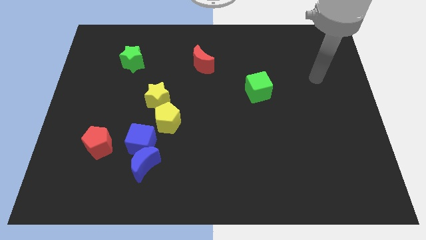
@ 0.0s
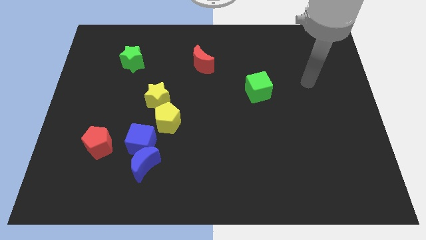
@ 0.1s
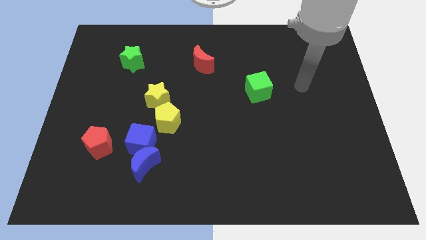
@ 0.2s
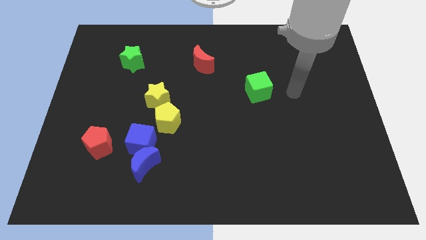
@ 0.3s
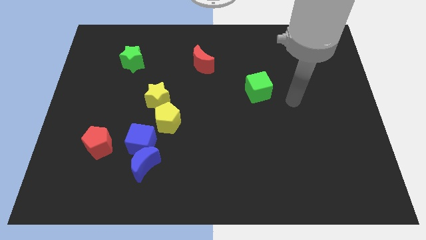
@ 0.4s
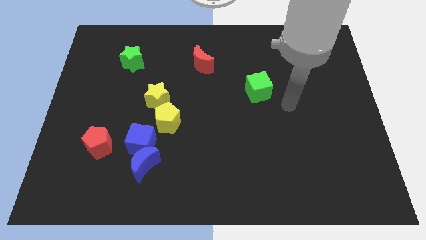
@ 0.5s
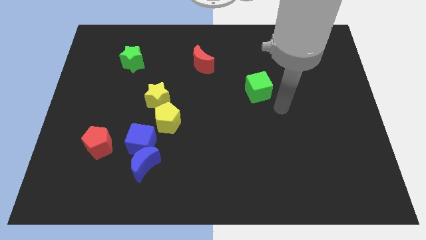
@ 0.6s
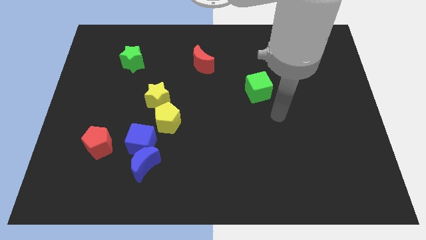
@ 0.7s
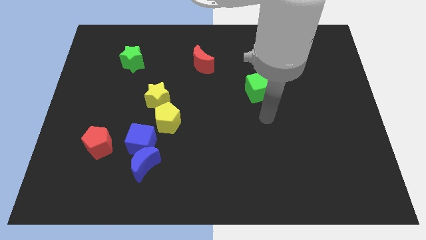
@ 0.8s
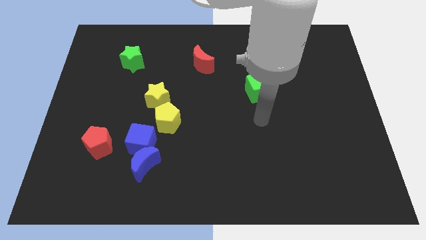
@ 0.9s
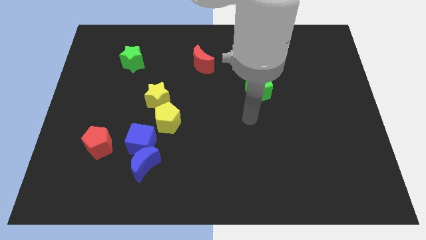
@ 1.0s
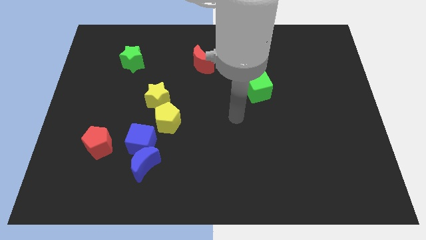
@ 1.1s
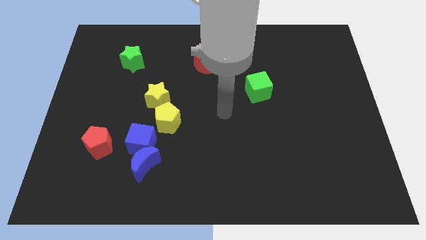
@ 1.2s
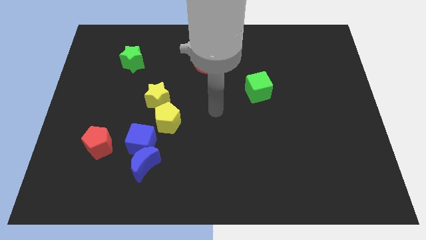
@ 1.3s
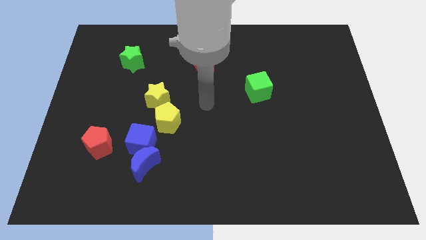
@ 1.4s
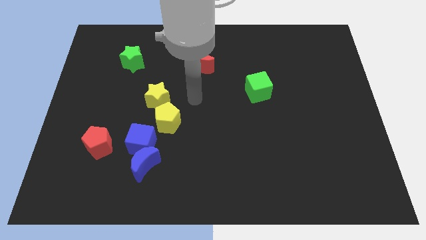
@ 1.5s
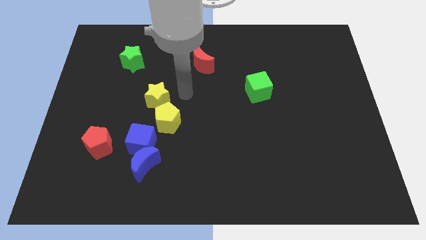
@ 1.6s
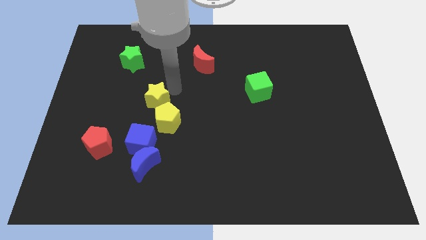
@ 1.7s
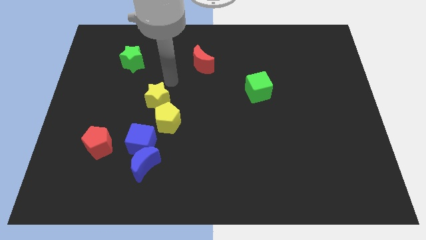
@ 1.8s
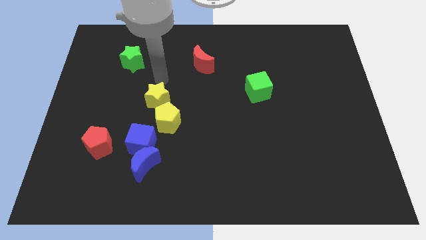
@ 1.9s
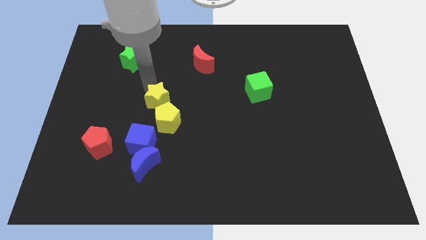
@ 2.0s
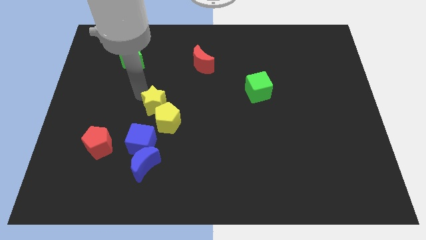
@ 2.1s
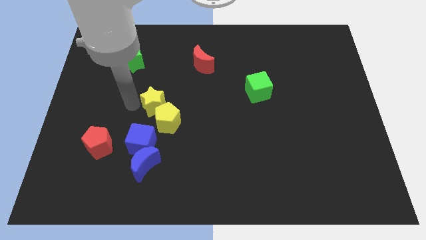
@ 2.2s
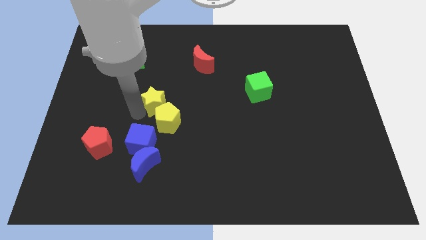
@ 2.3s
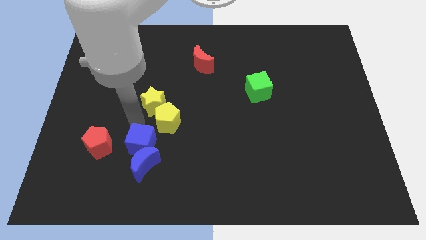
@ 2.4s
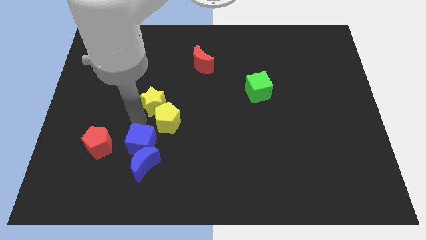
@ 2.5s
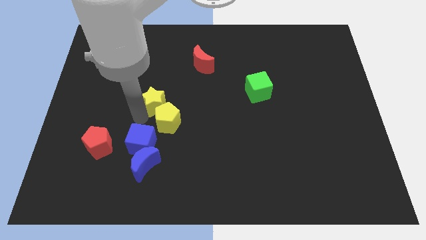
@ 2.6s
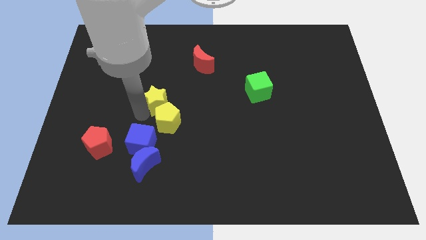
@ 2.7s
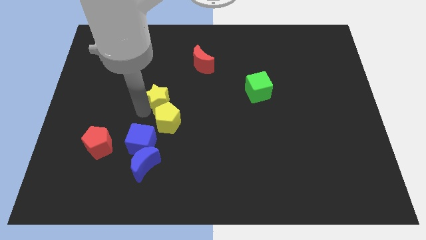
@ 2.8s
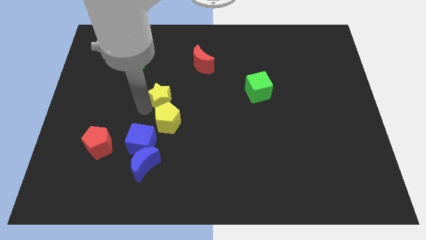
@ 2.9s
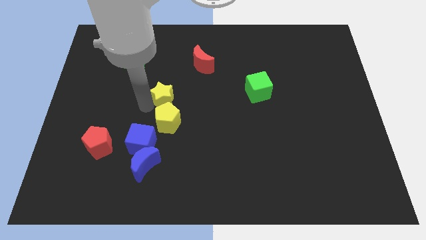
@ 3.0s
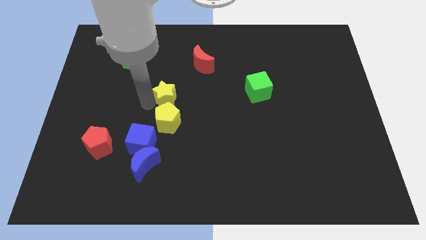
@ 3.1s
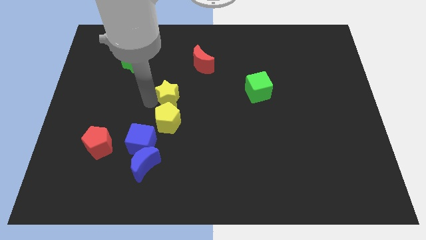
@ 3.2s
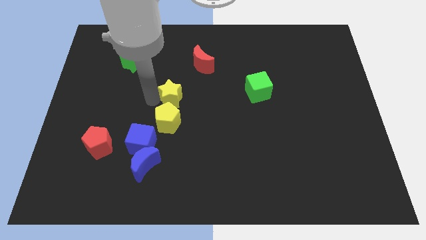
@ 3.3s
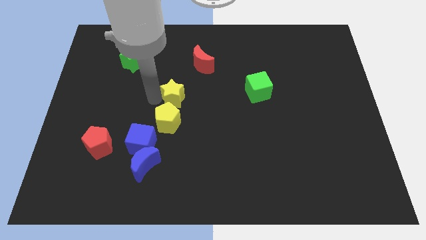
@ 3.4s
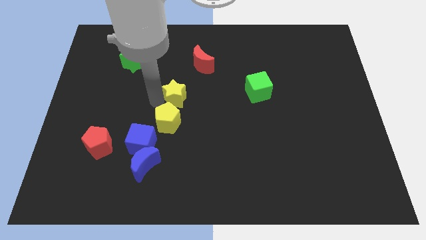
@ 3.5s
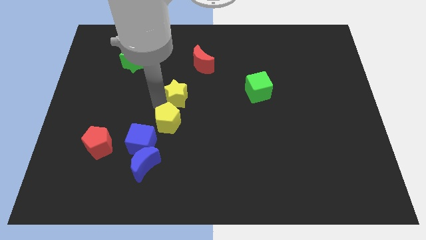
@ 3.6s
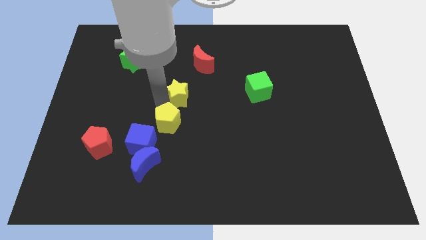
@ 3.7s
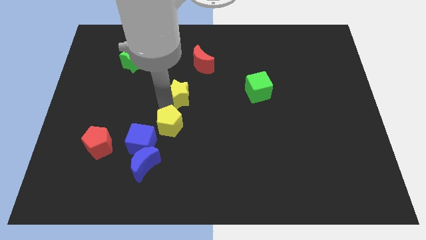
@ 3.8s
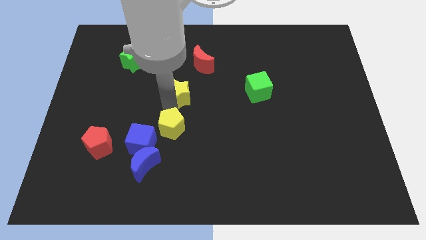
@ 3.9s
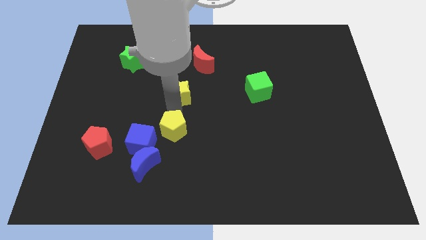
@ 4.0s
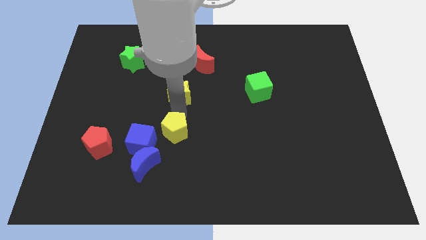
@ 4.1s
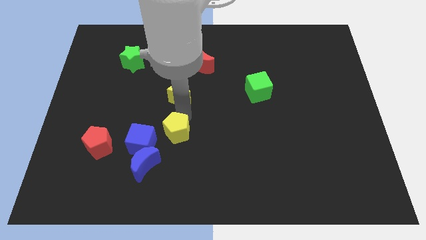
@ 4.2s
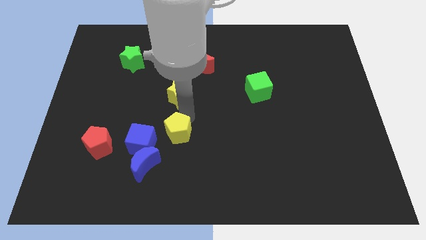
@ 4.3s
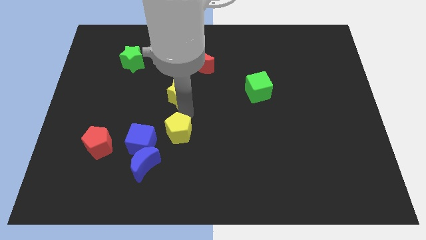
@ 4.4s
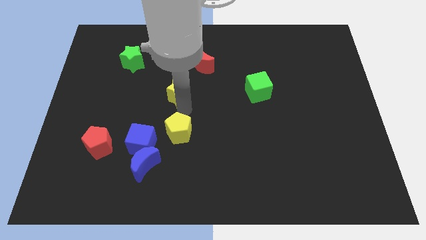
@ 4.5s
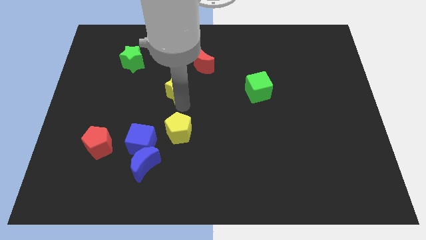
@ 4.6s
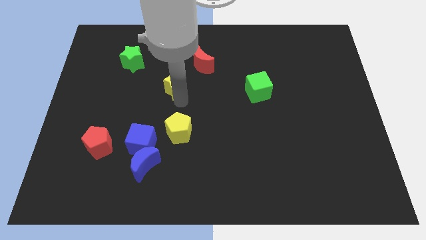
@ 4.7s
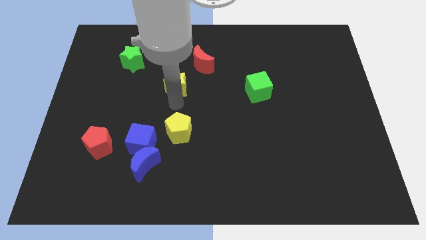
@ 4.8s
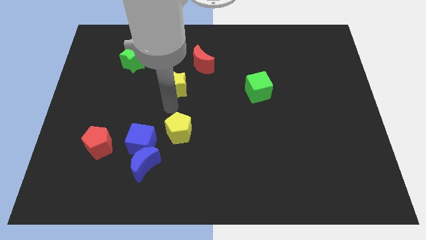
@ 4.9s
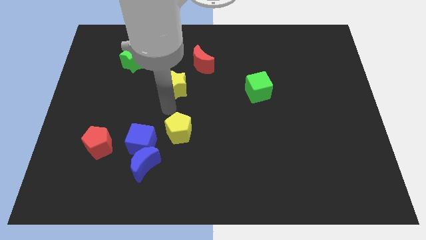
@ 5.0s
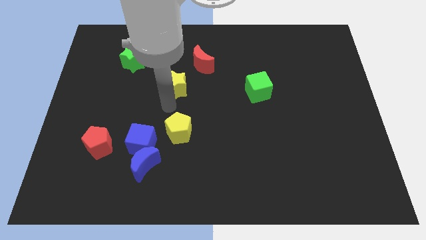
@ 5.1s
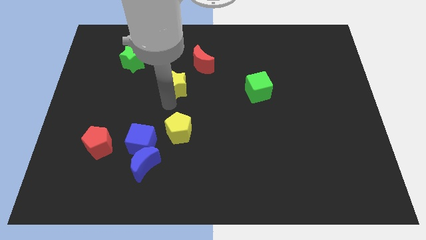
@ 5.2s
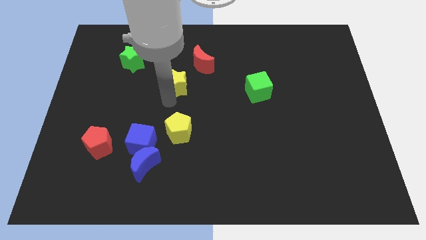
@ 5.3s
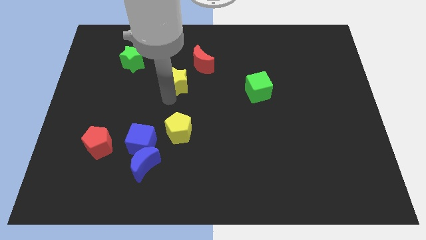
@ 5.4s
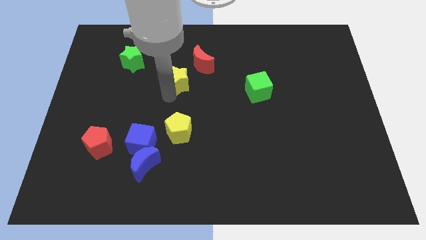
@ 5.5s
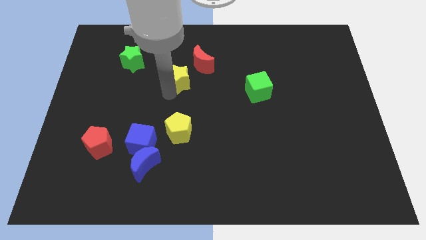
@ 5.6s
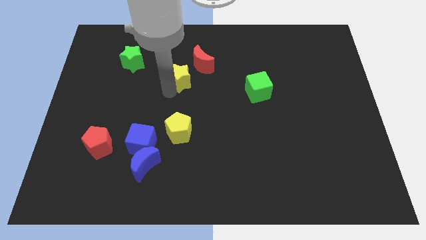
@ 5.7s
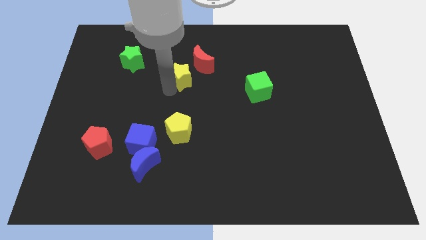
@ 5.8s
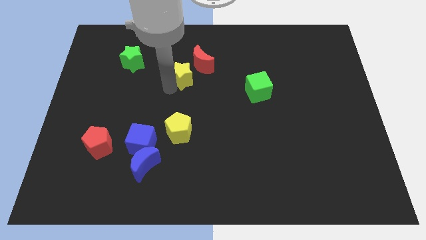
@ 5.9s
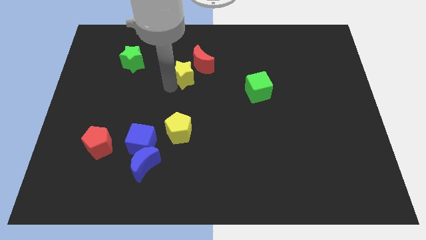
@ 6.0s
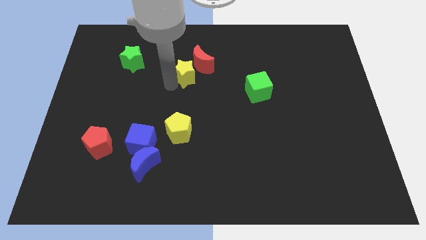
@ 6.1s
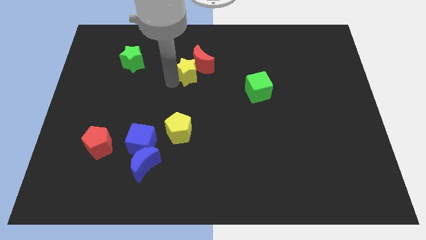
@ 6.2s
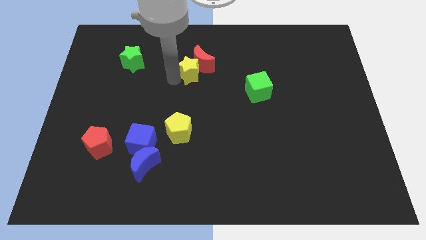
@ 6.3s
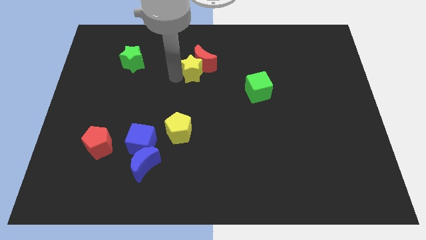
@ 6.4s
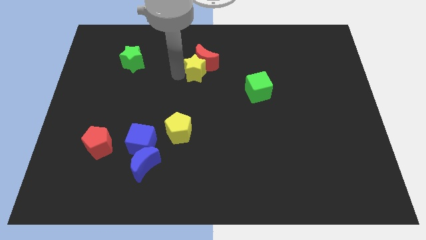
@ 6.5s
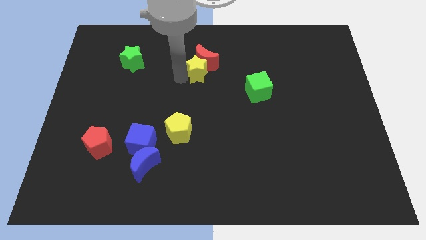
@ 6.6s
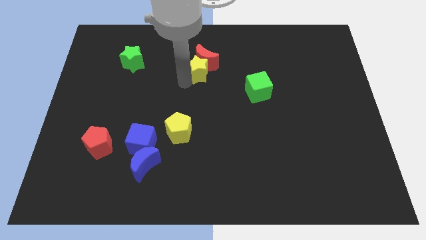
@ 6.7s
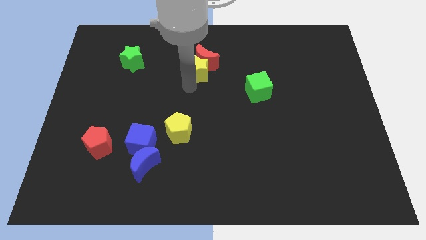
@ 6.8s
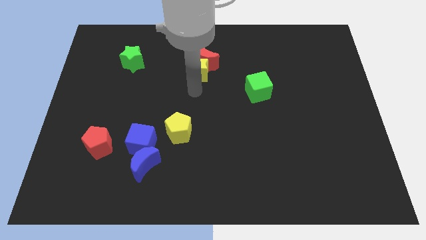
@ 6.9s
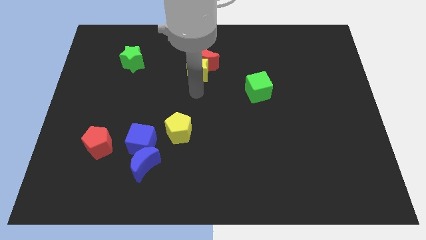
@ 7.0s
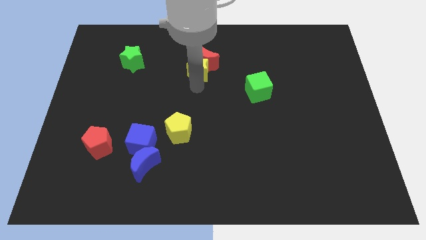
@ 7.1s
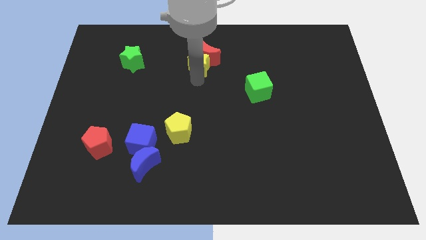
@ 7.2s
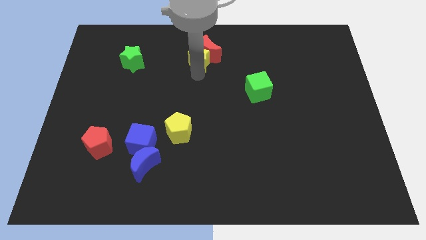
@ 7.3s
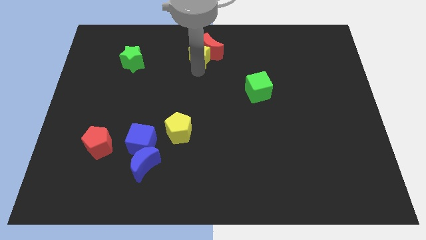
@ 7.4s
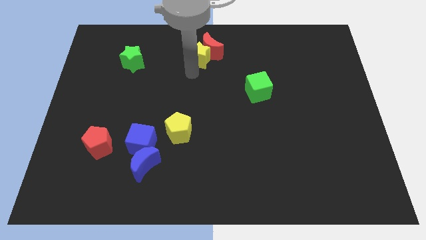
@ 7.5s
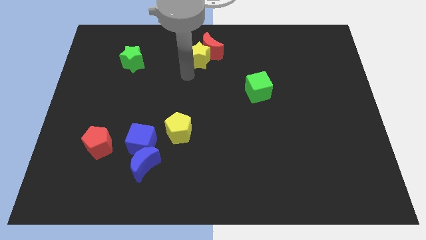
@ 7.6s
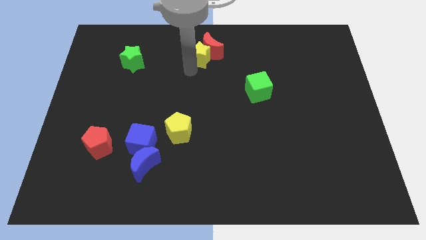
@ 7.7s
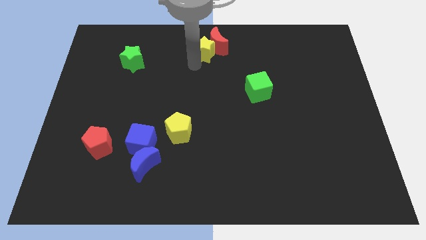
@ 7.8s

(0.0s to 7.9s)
slide the yellow star to the towards your base
